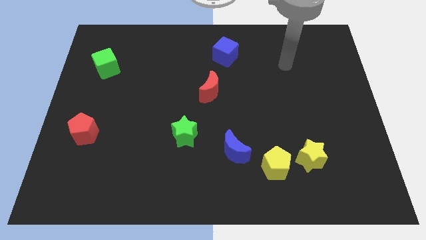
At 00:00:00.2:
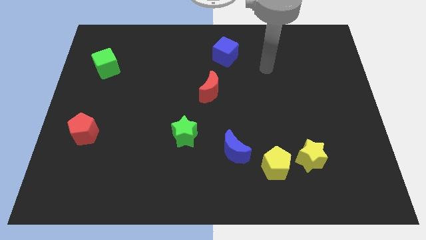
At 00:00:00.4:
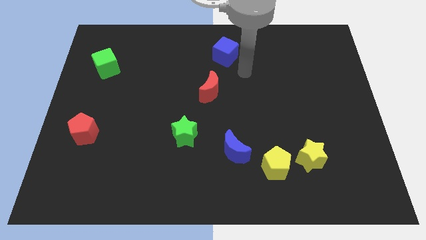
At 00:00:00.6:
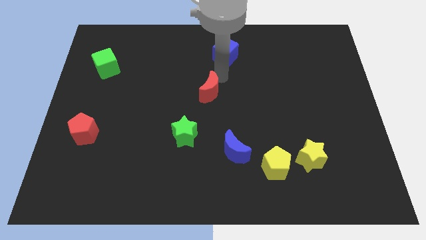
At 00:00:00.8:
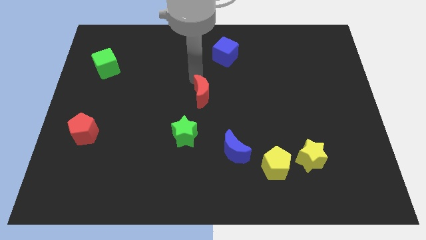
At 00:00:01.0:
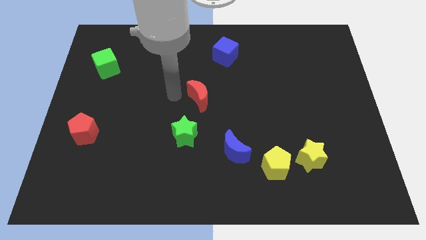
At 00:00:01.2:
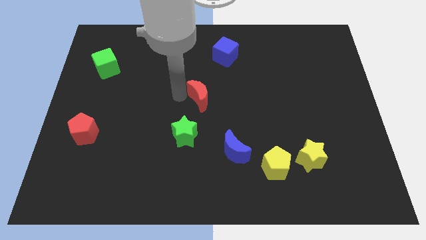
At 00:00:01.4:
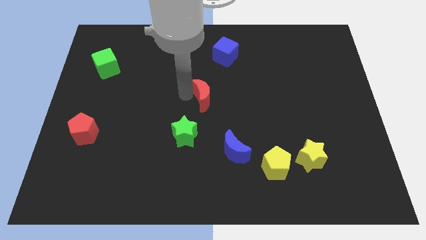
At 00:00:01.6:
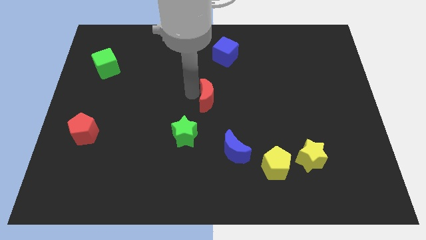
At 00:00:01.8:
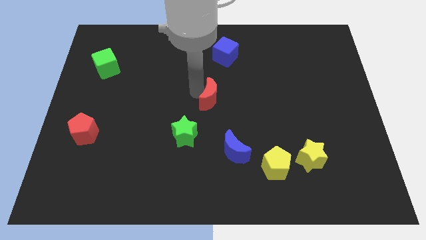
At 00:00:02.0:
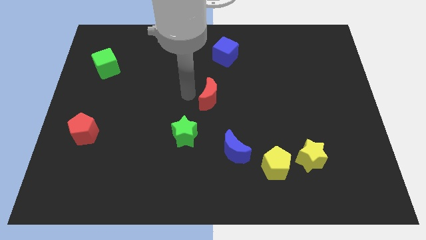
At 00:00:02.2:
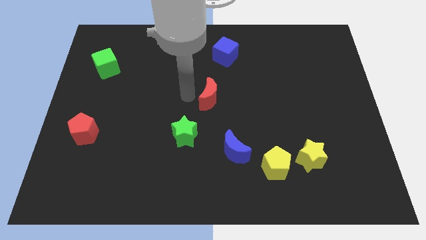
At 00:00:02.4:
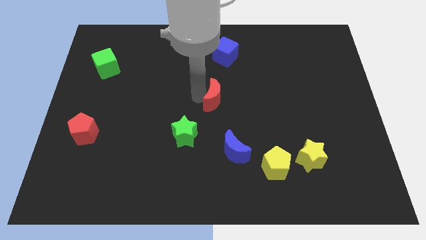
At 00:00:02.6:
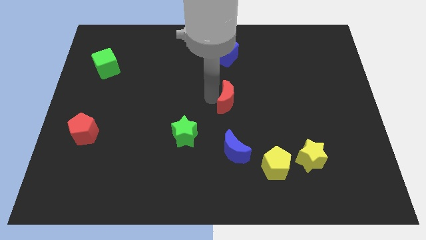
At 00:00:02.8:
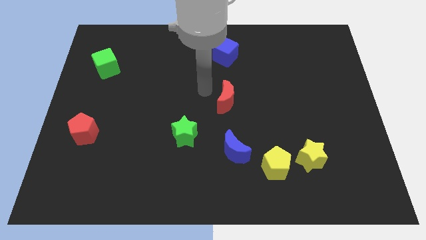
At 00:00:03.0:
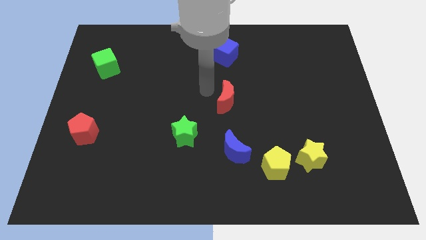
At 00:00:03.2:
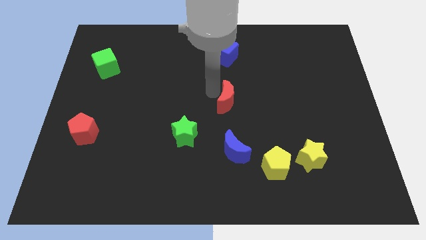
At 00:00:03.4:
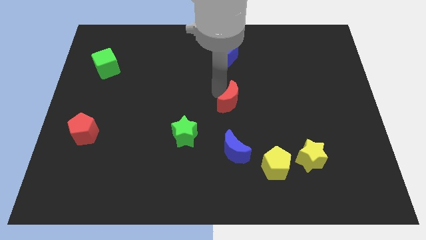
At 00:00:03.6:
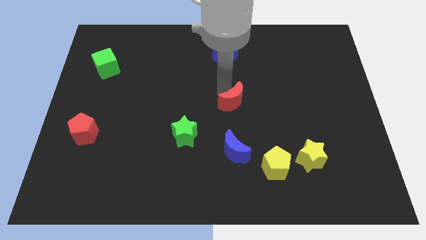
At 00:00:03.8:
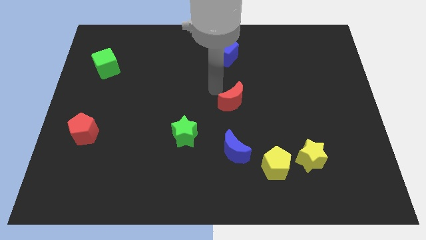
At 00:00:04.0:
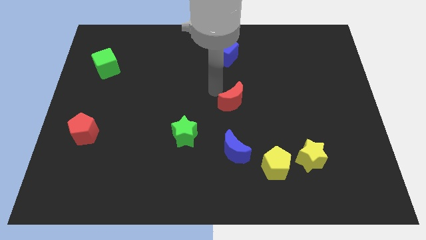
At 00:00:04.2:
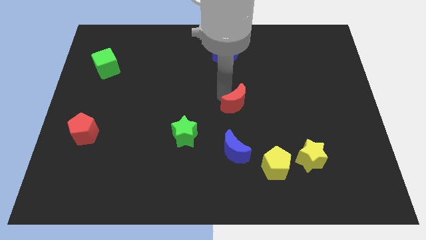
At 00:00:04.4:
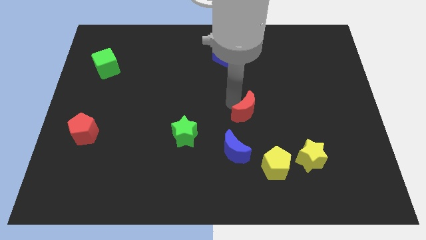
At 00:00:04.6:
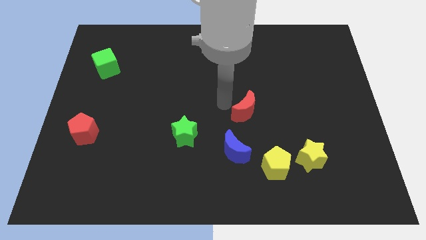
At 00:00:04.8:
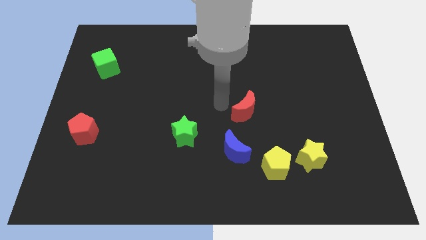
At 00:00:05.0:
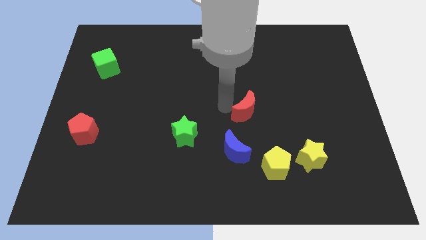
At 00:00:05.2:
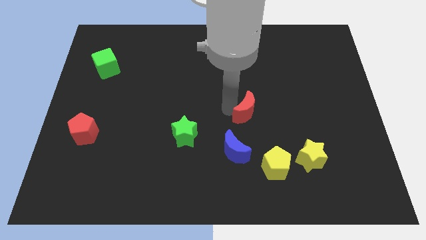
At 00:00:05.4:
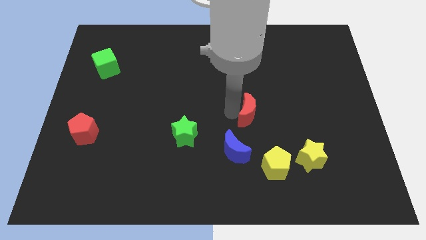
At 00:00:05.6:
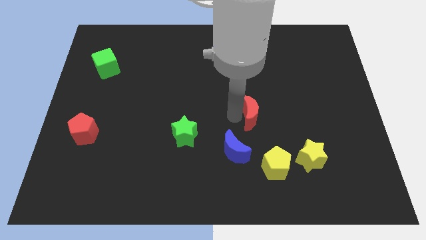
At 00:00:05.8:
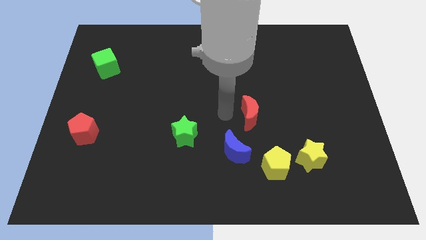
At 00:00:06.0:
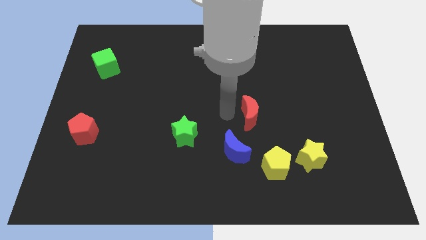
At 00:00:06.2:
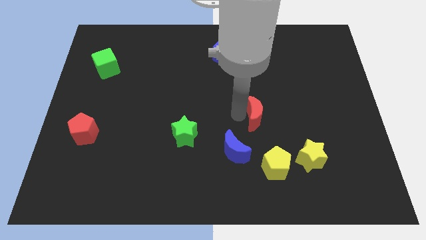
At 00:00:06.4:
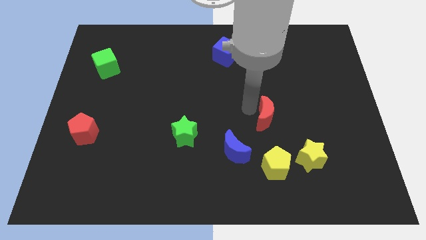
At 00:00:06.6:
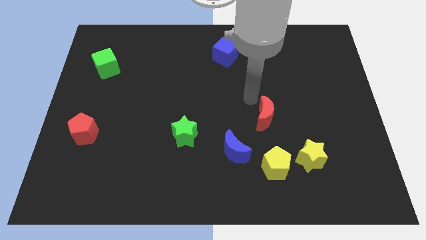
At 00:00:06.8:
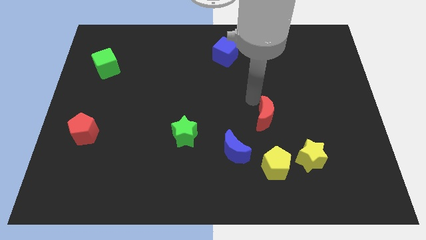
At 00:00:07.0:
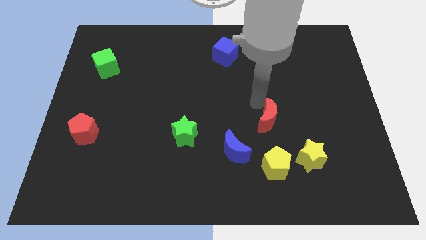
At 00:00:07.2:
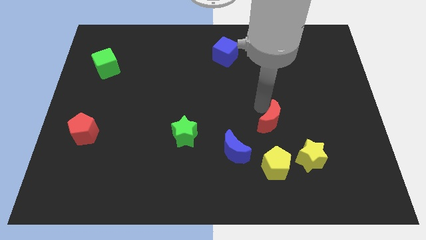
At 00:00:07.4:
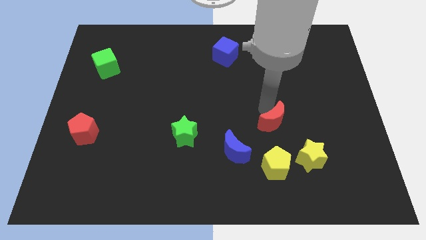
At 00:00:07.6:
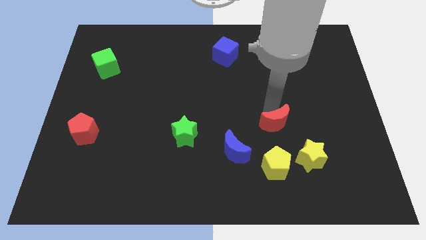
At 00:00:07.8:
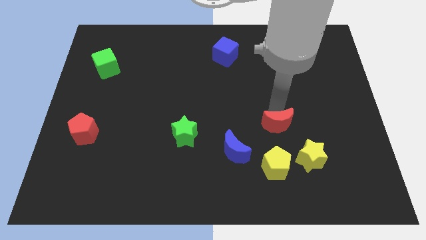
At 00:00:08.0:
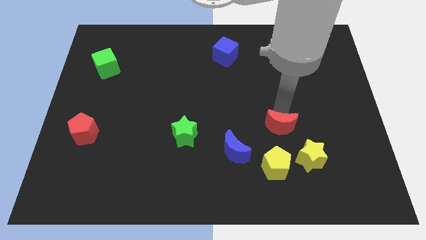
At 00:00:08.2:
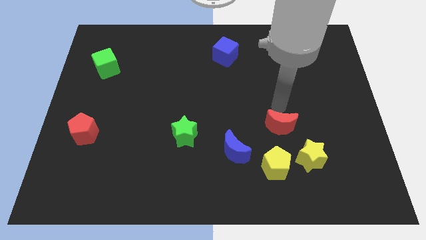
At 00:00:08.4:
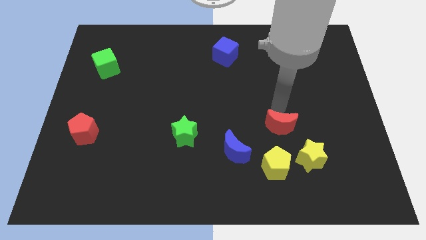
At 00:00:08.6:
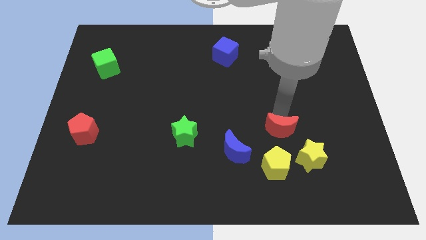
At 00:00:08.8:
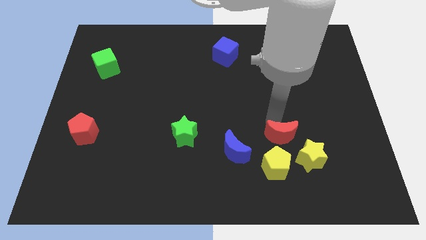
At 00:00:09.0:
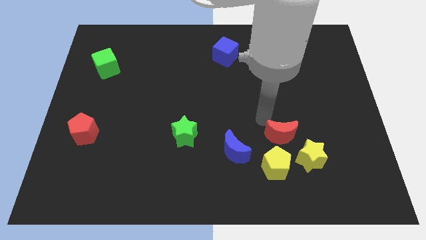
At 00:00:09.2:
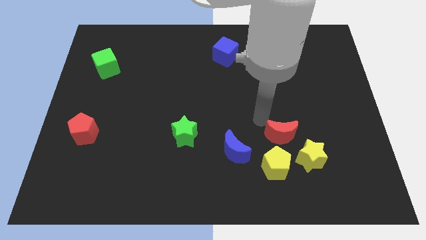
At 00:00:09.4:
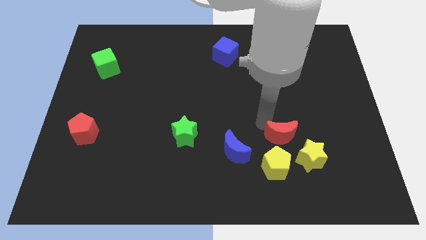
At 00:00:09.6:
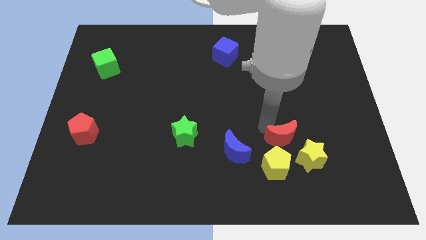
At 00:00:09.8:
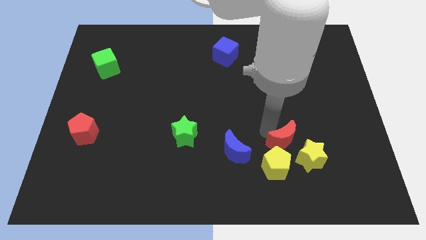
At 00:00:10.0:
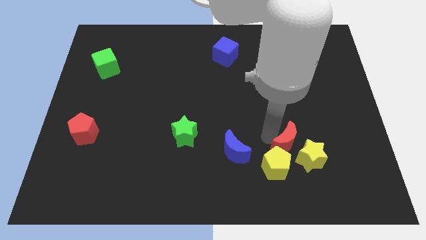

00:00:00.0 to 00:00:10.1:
slide the red moon towards the yellow star

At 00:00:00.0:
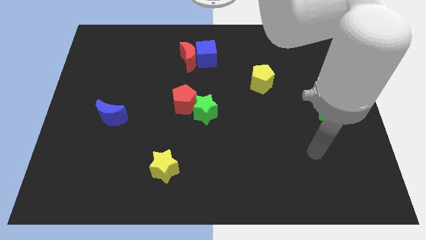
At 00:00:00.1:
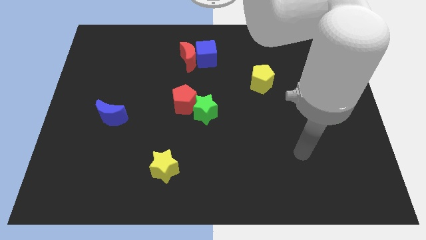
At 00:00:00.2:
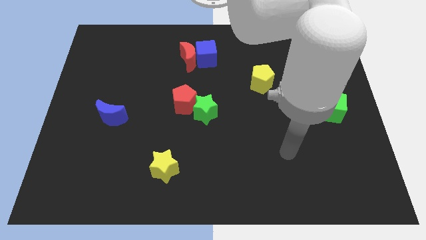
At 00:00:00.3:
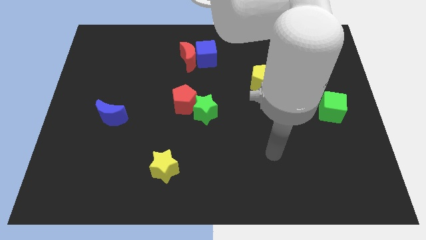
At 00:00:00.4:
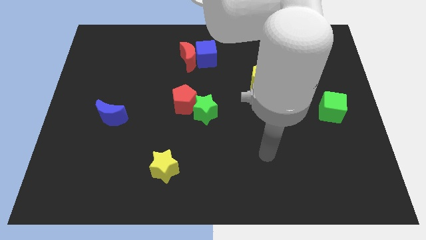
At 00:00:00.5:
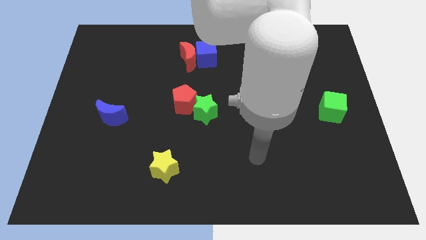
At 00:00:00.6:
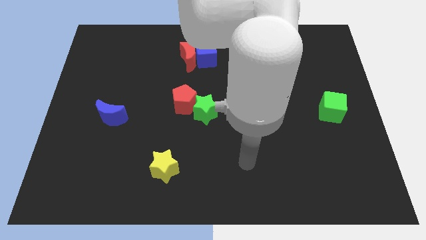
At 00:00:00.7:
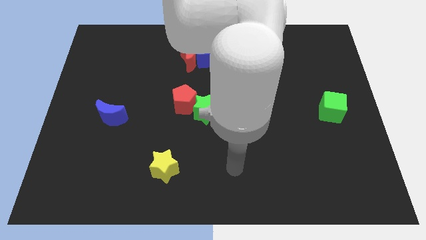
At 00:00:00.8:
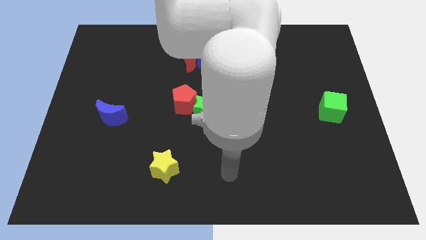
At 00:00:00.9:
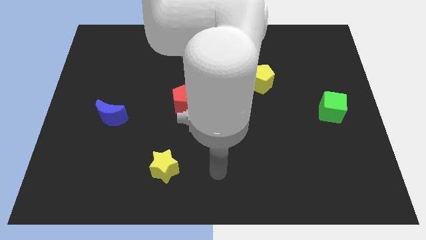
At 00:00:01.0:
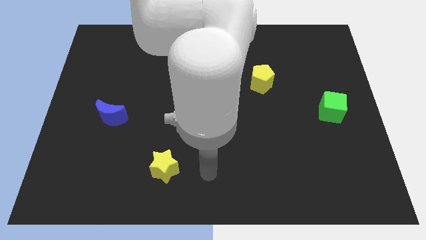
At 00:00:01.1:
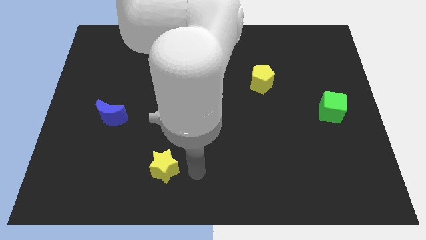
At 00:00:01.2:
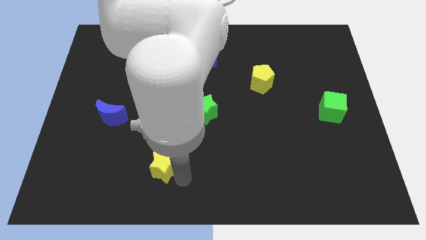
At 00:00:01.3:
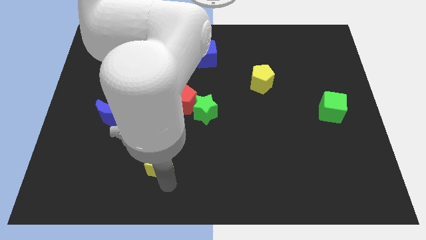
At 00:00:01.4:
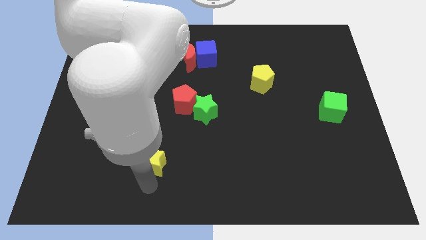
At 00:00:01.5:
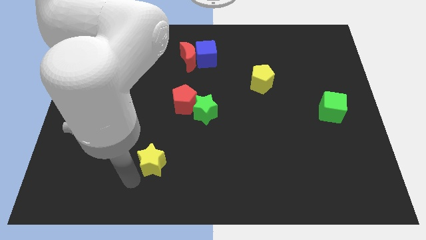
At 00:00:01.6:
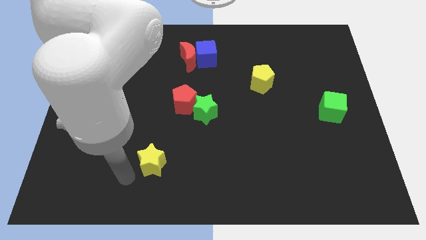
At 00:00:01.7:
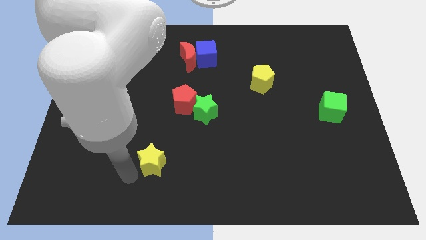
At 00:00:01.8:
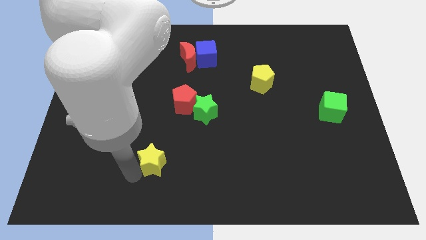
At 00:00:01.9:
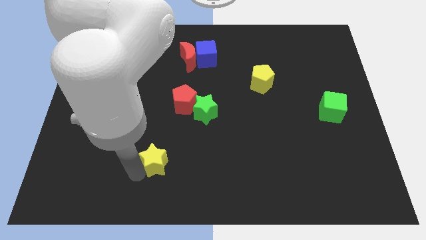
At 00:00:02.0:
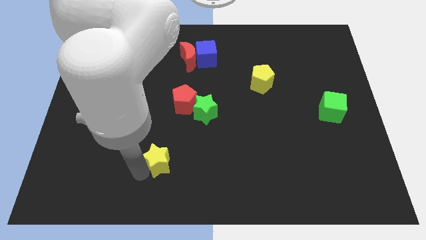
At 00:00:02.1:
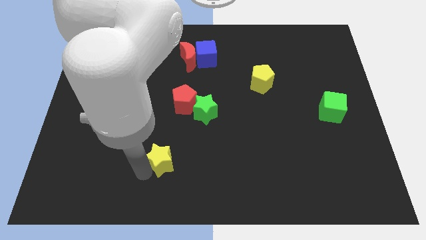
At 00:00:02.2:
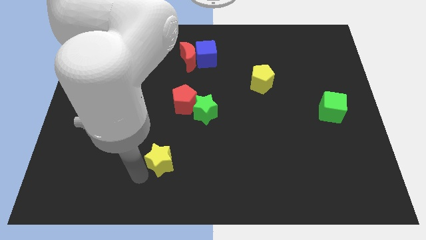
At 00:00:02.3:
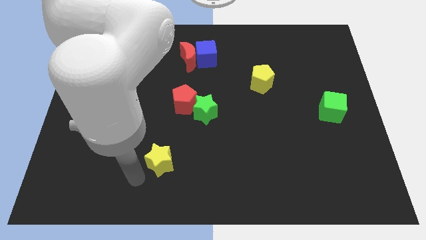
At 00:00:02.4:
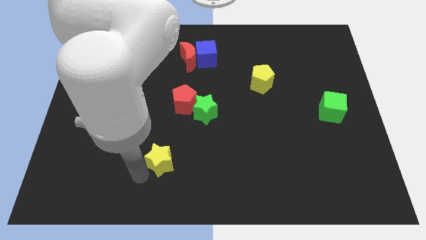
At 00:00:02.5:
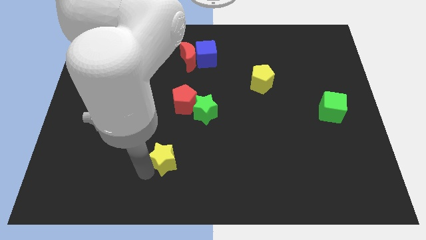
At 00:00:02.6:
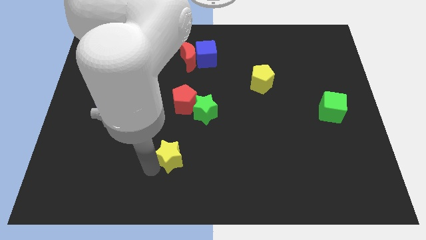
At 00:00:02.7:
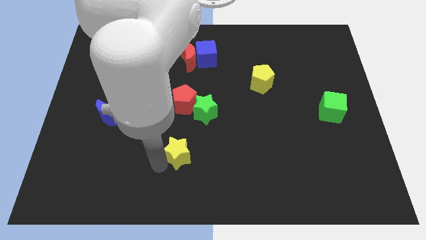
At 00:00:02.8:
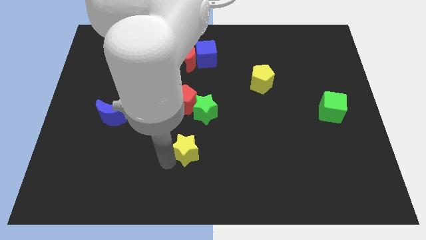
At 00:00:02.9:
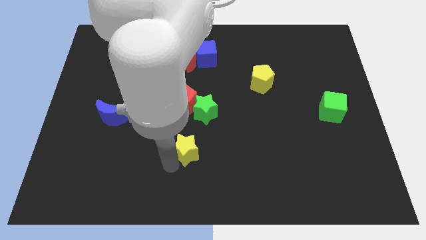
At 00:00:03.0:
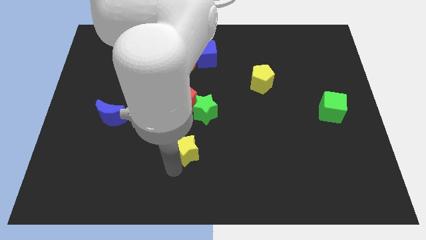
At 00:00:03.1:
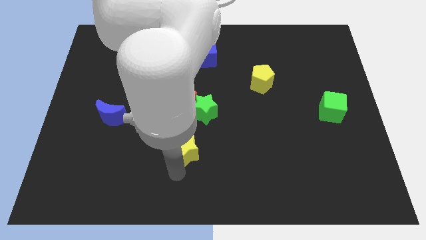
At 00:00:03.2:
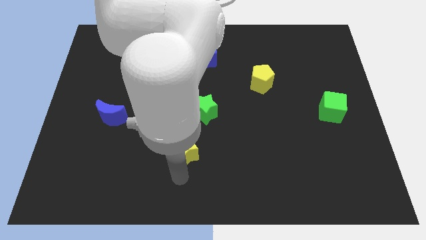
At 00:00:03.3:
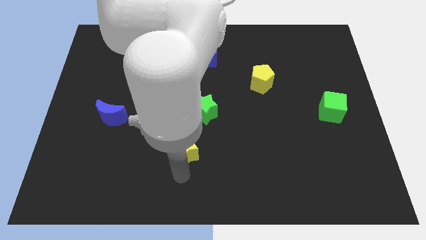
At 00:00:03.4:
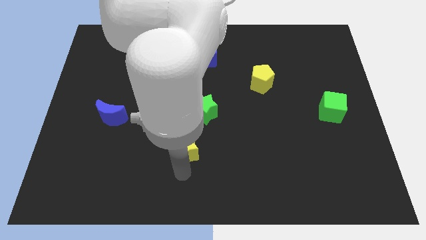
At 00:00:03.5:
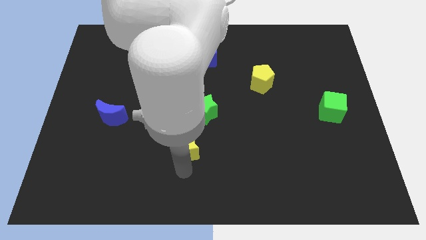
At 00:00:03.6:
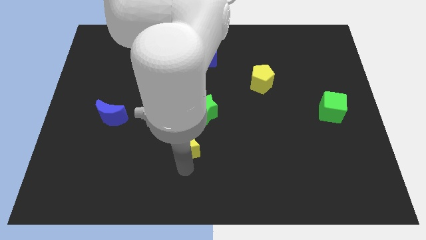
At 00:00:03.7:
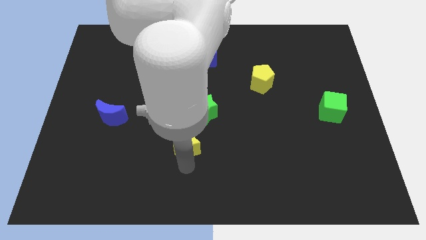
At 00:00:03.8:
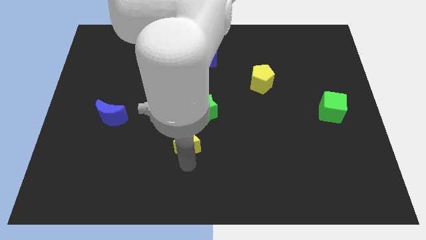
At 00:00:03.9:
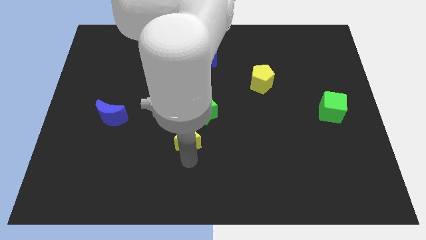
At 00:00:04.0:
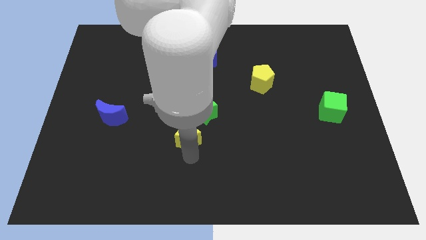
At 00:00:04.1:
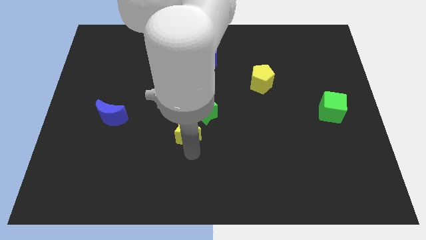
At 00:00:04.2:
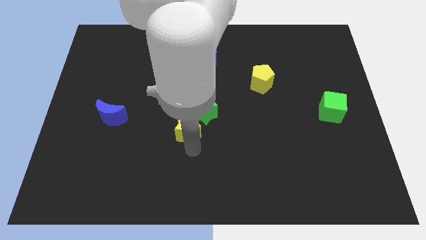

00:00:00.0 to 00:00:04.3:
push the yellow star next to the green star
